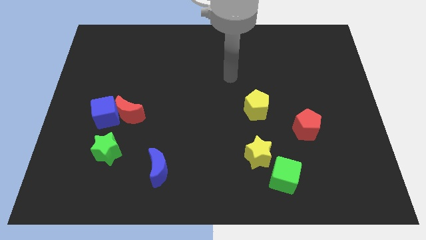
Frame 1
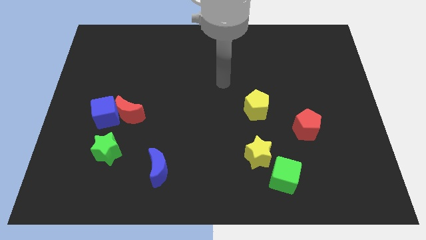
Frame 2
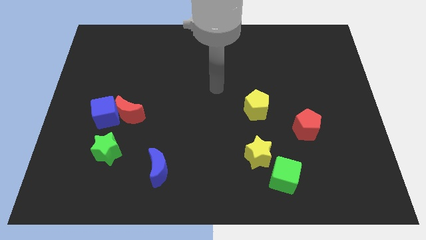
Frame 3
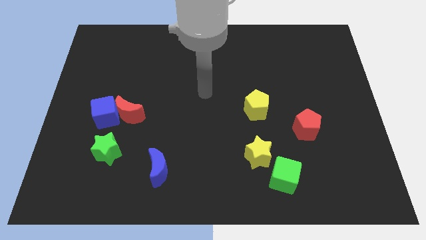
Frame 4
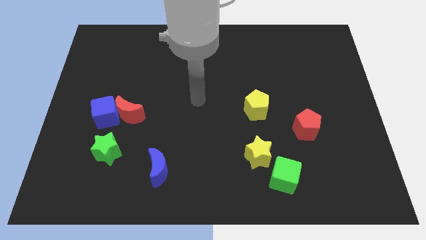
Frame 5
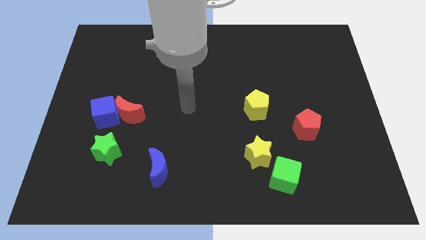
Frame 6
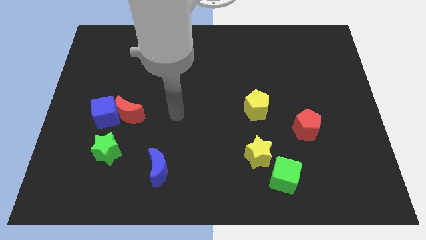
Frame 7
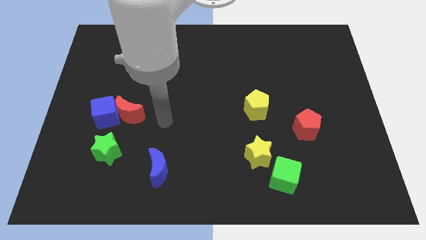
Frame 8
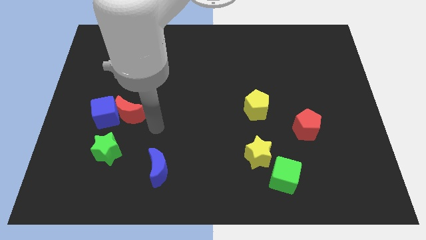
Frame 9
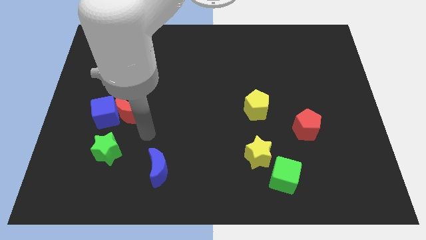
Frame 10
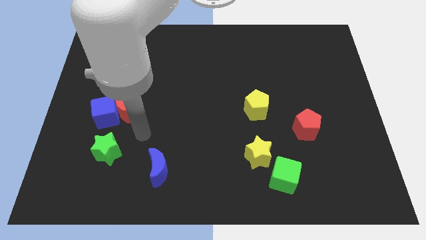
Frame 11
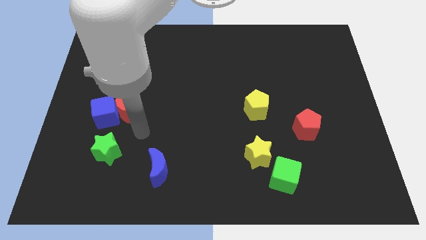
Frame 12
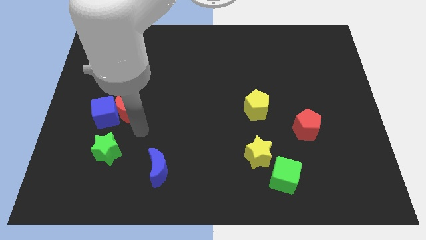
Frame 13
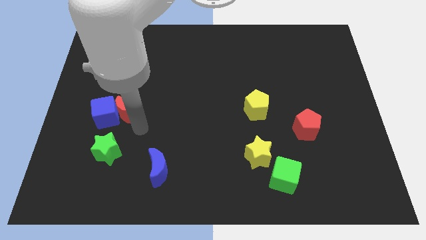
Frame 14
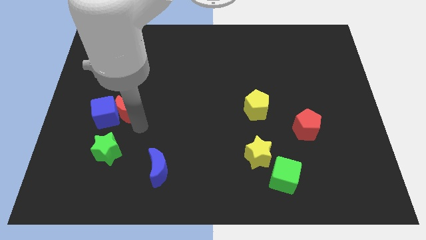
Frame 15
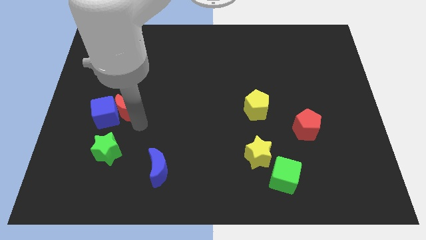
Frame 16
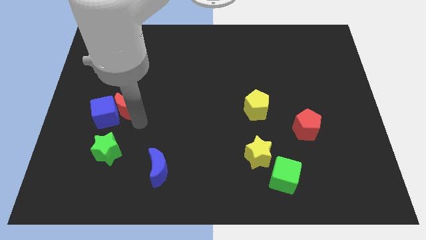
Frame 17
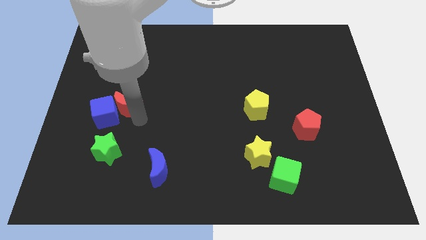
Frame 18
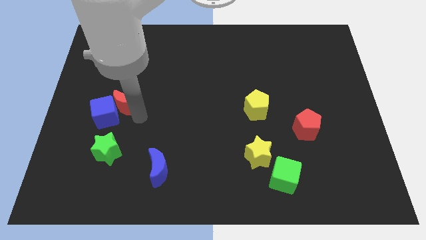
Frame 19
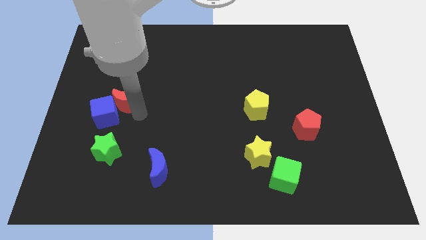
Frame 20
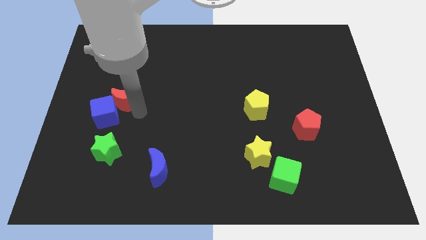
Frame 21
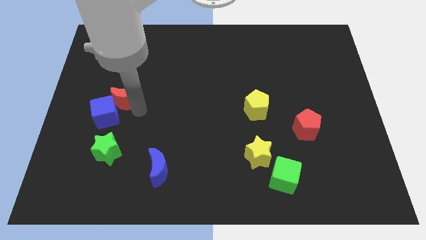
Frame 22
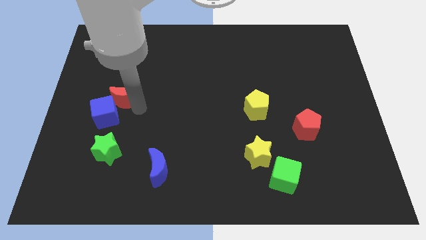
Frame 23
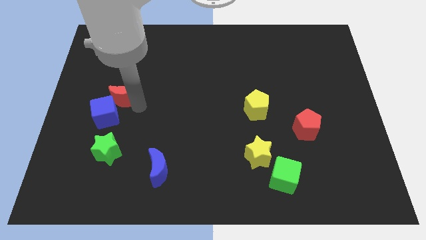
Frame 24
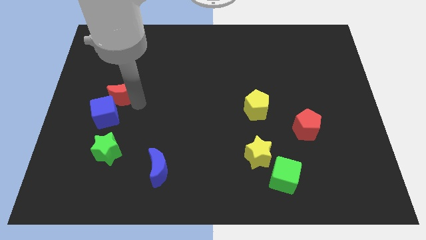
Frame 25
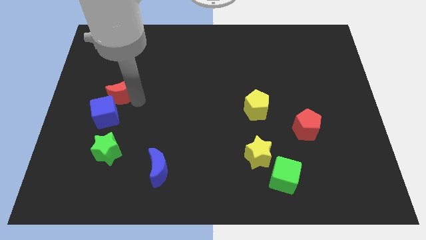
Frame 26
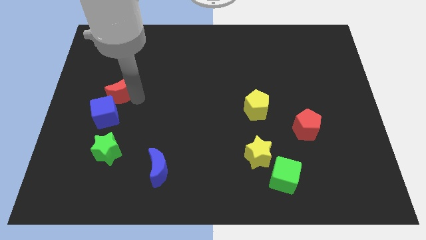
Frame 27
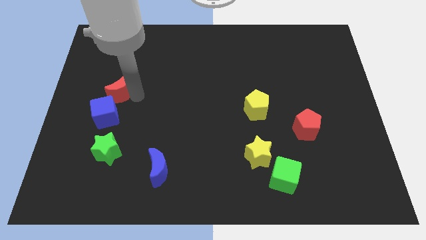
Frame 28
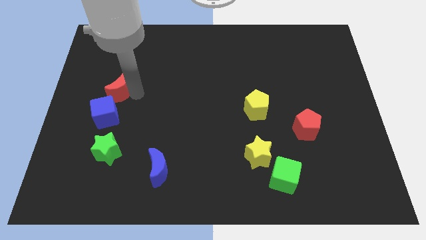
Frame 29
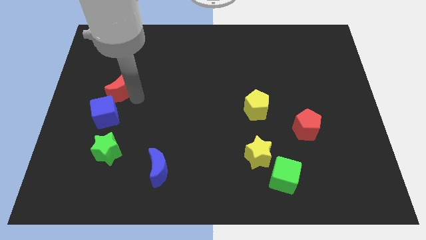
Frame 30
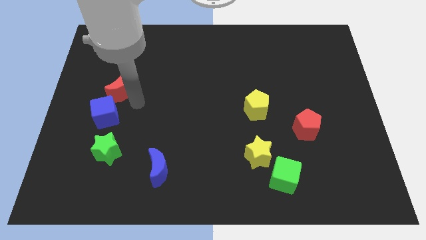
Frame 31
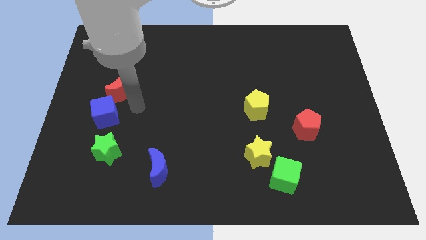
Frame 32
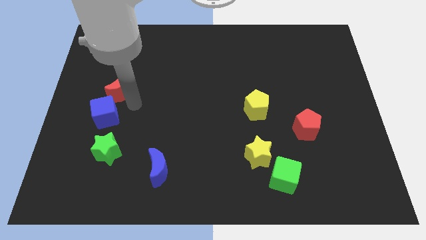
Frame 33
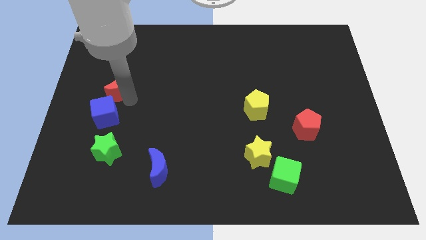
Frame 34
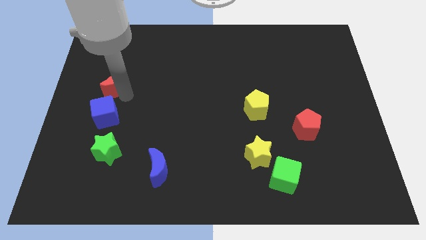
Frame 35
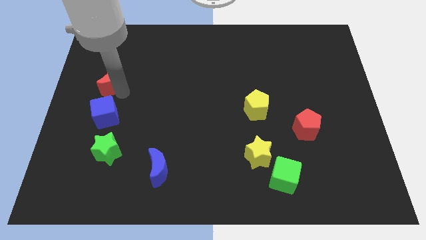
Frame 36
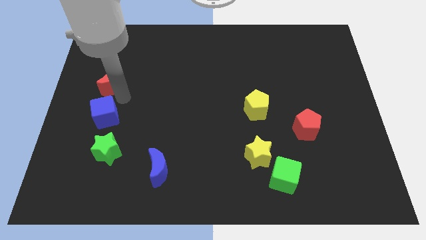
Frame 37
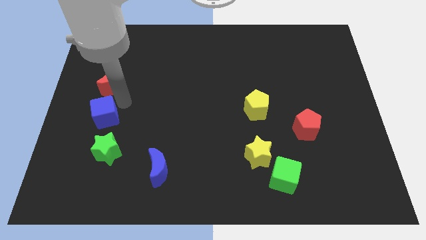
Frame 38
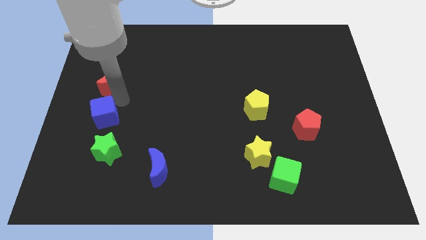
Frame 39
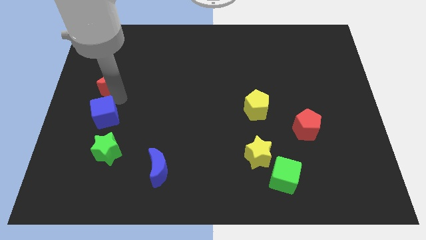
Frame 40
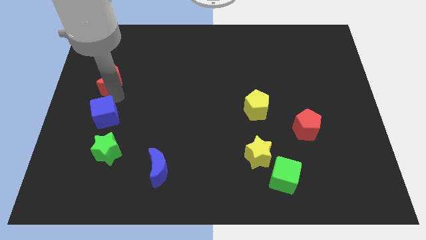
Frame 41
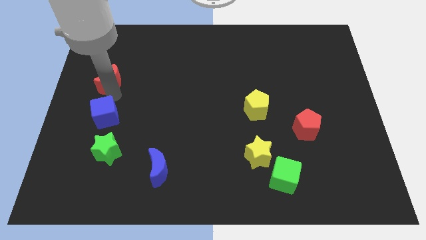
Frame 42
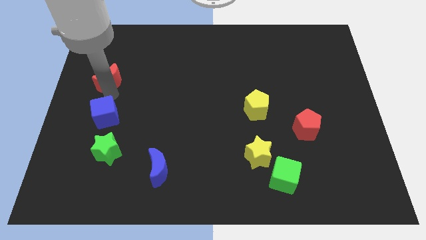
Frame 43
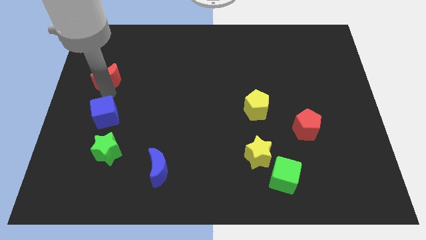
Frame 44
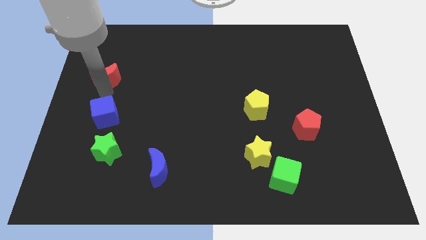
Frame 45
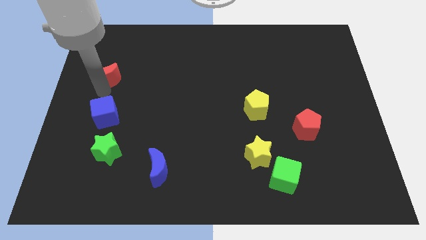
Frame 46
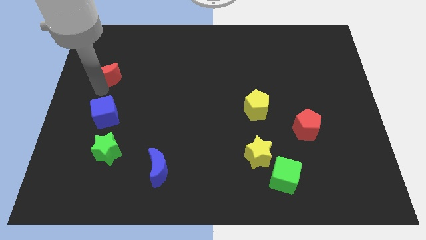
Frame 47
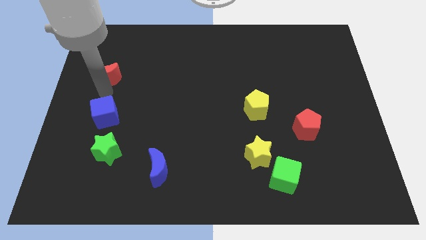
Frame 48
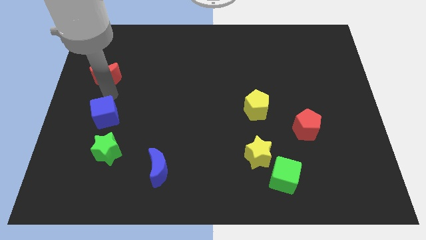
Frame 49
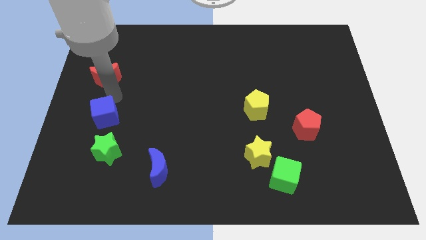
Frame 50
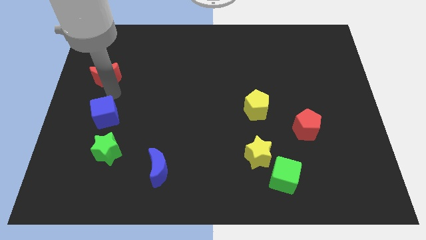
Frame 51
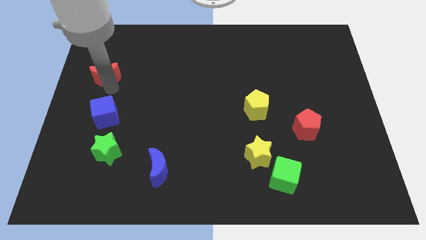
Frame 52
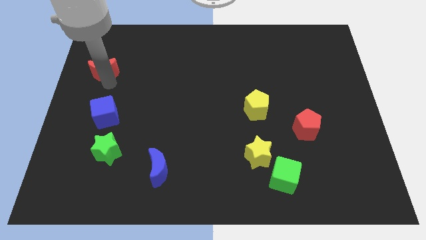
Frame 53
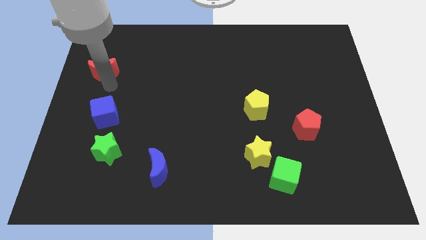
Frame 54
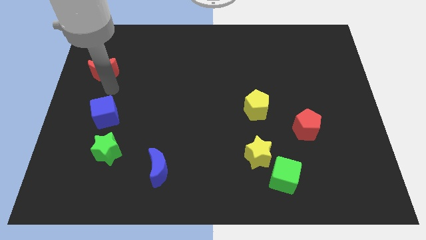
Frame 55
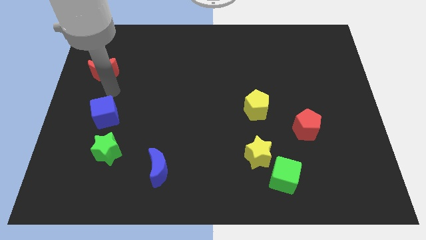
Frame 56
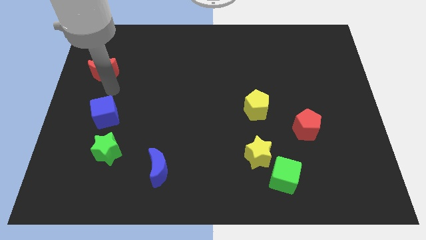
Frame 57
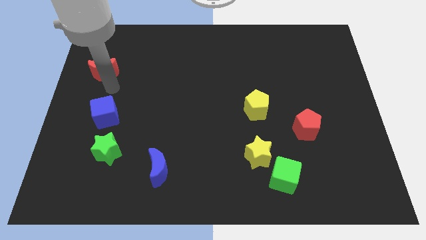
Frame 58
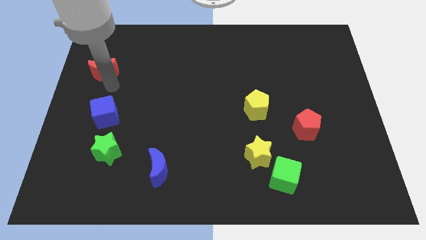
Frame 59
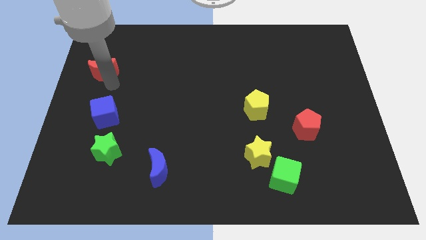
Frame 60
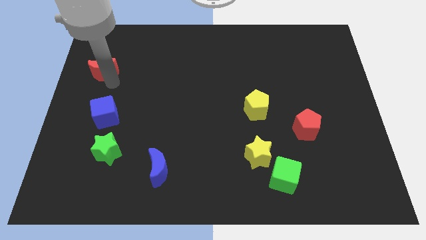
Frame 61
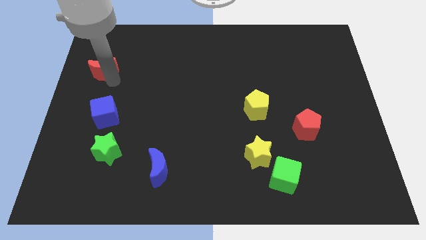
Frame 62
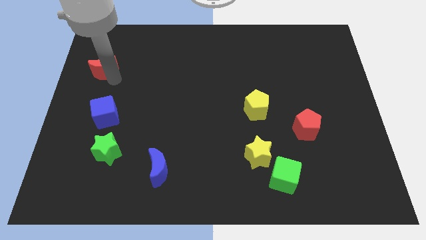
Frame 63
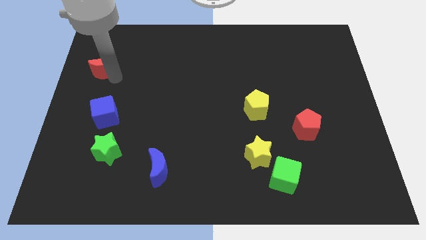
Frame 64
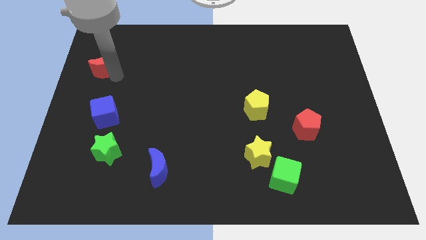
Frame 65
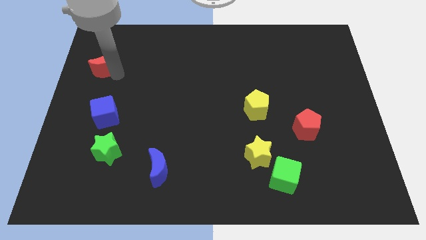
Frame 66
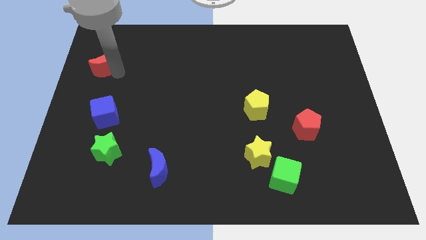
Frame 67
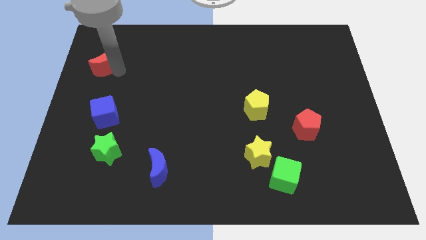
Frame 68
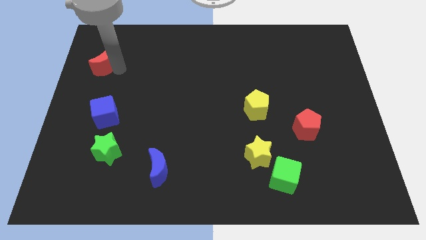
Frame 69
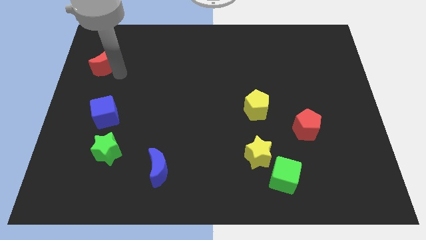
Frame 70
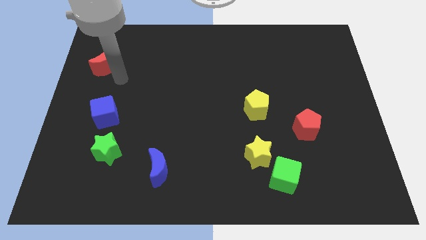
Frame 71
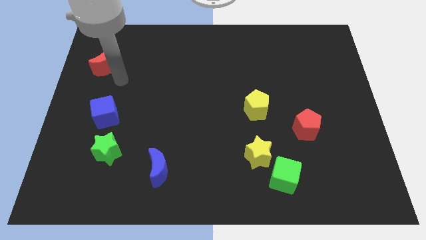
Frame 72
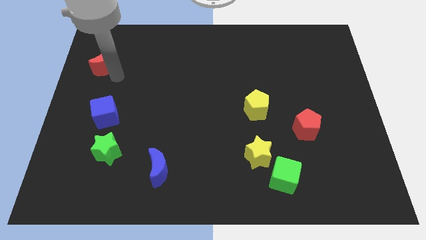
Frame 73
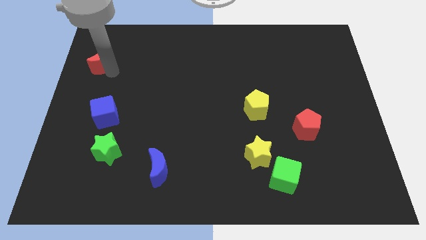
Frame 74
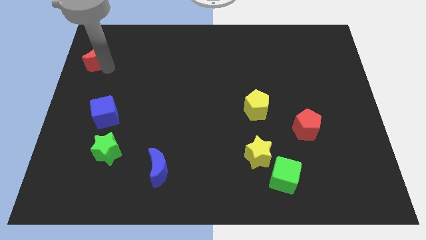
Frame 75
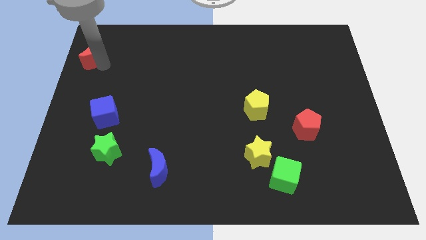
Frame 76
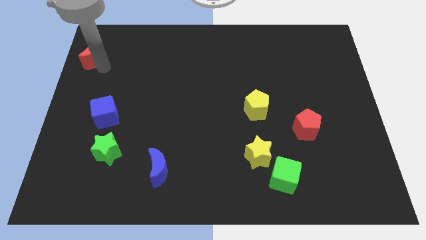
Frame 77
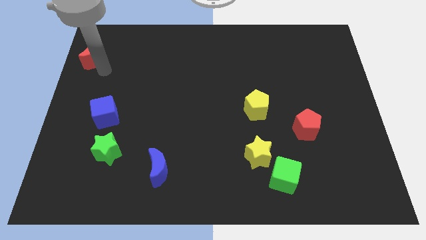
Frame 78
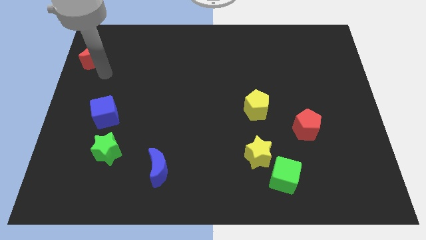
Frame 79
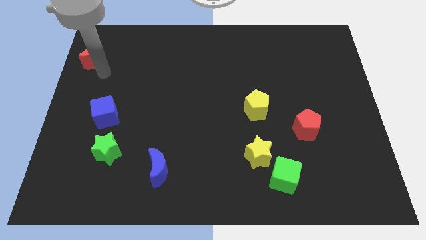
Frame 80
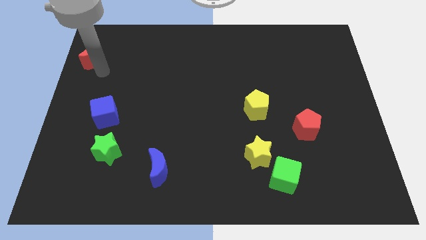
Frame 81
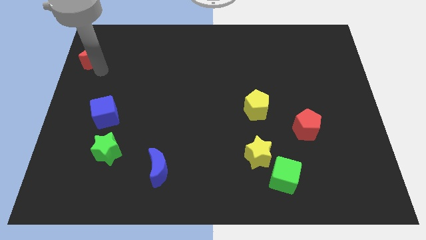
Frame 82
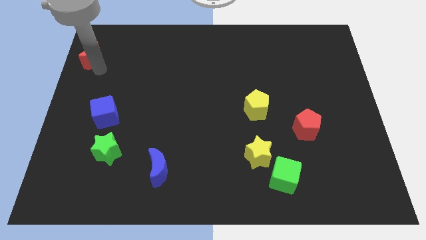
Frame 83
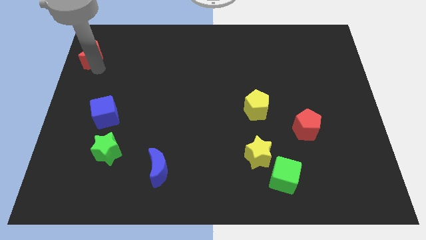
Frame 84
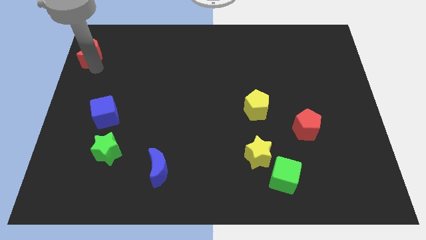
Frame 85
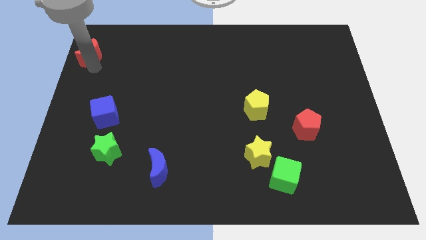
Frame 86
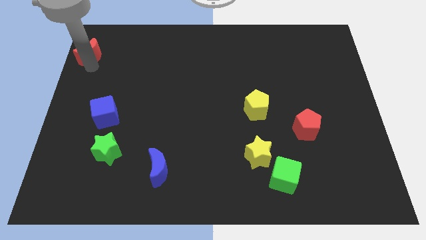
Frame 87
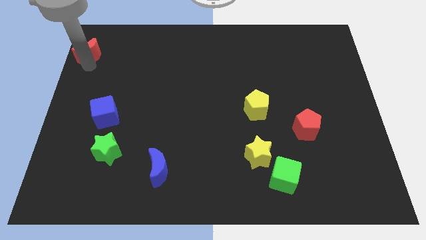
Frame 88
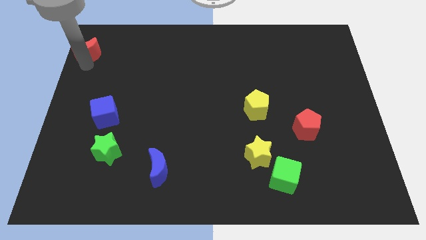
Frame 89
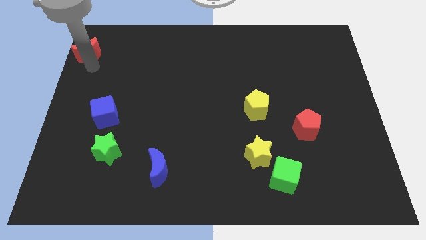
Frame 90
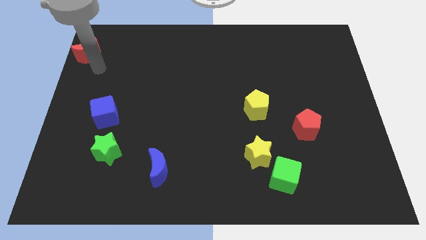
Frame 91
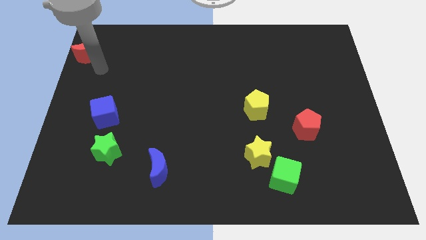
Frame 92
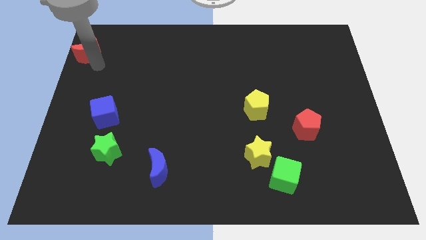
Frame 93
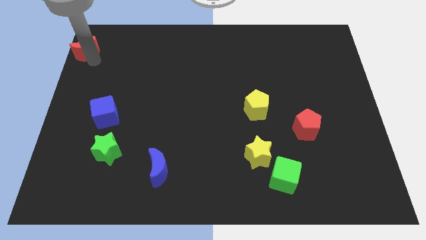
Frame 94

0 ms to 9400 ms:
slide the red moon to the top left of the board
